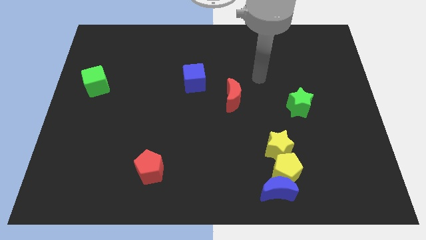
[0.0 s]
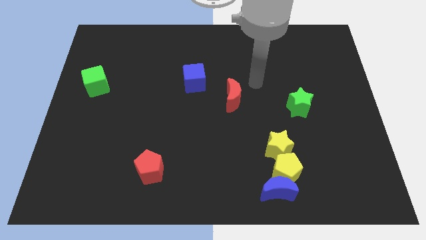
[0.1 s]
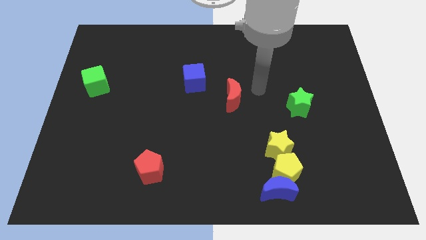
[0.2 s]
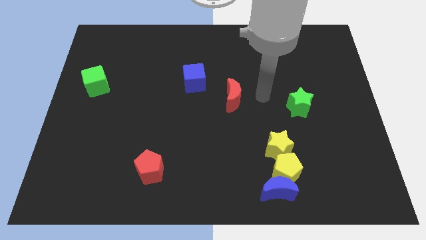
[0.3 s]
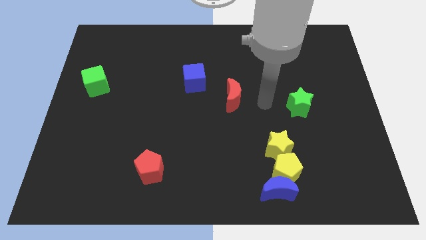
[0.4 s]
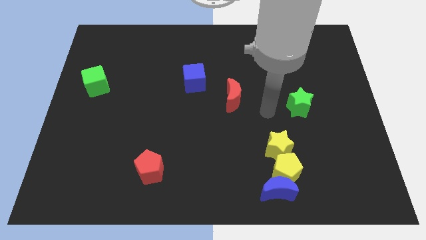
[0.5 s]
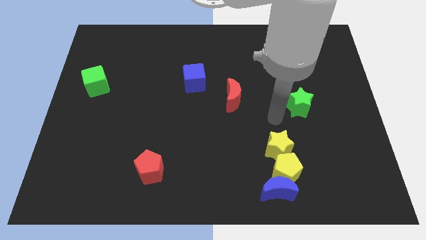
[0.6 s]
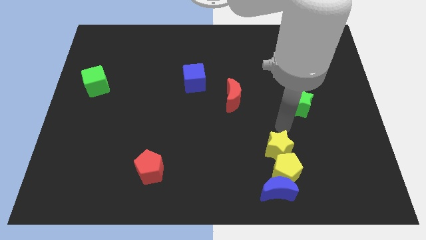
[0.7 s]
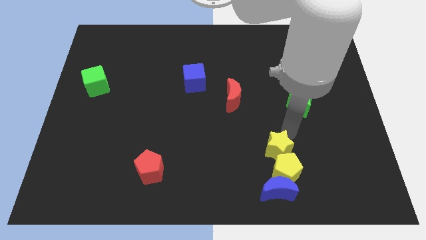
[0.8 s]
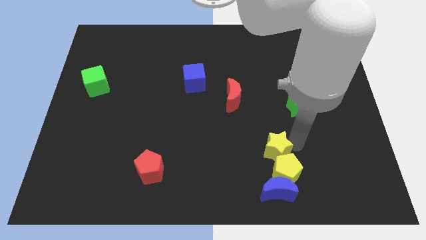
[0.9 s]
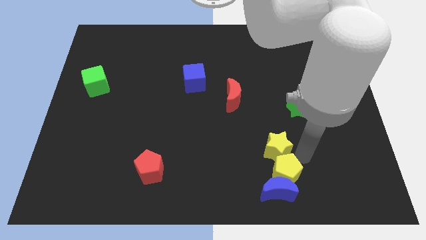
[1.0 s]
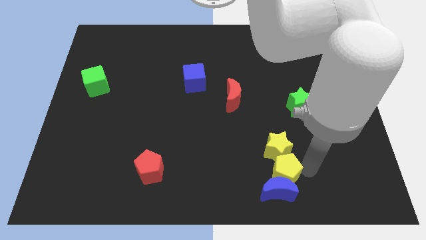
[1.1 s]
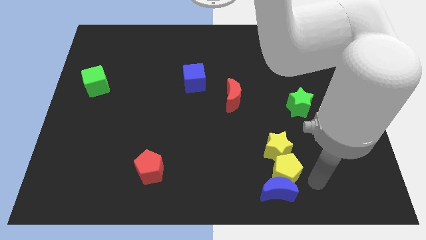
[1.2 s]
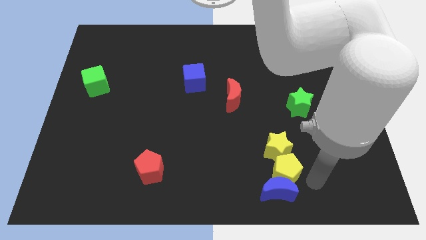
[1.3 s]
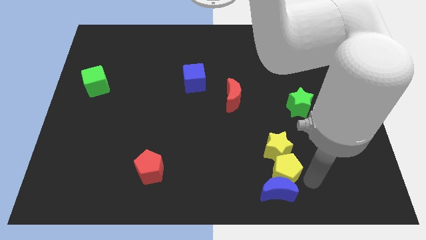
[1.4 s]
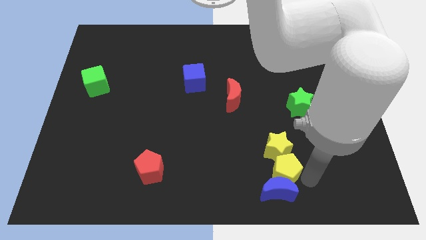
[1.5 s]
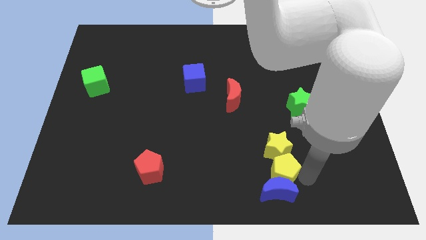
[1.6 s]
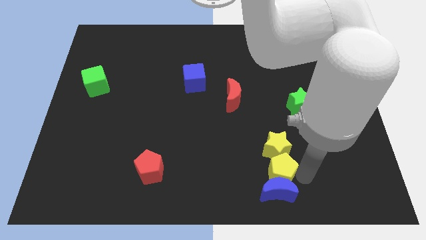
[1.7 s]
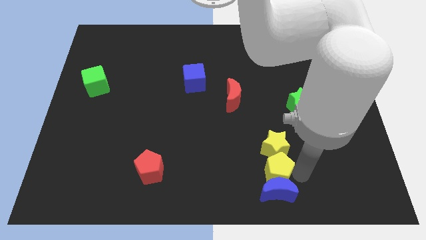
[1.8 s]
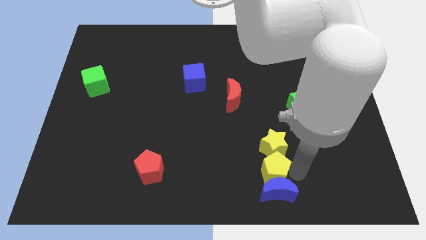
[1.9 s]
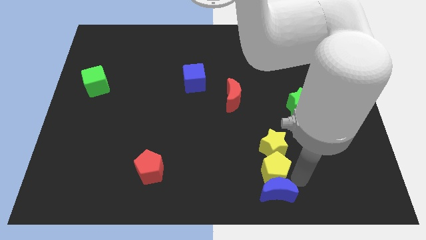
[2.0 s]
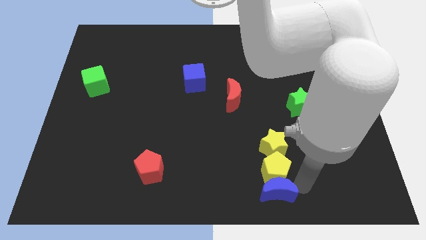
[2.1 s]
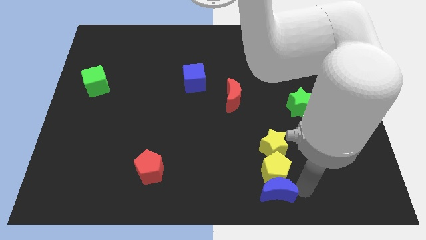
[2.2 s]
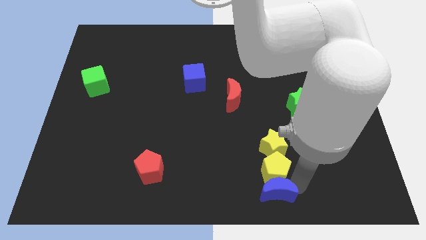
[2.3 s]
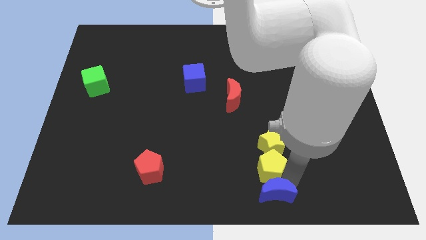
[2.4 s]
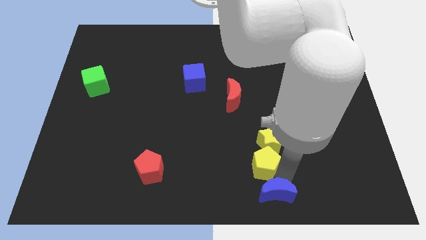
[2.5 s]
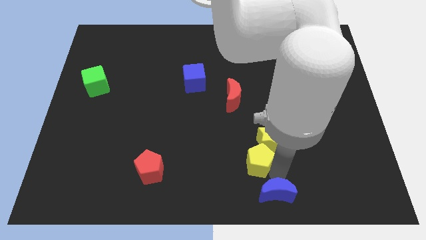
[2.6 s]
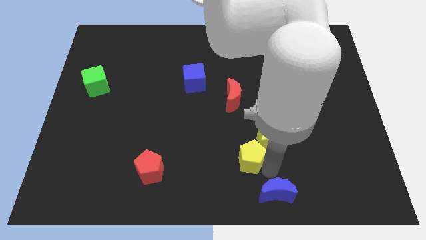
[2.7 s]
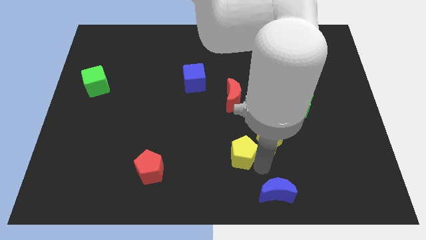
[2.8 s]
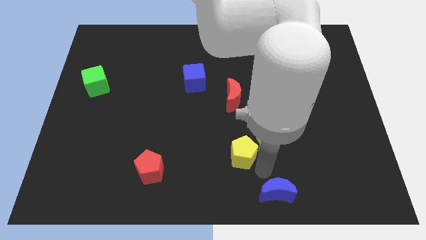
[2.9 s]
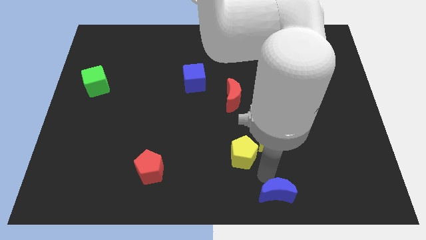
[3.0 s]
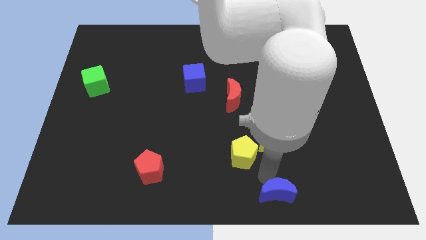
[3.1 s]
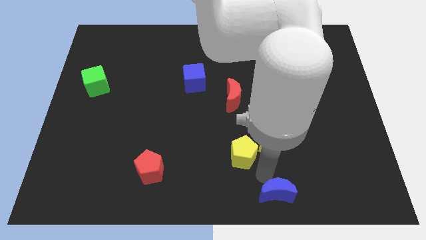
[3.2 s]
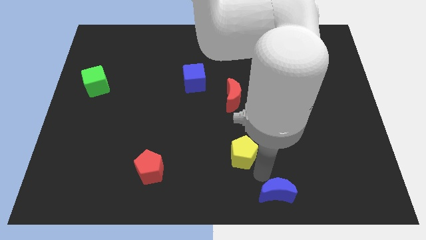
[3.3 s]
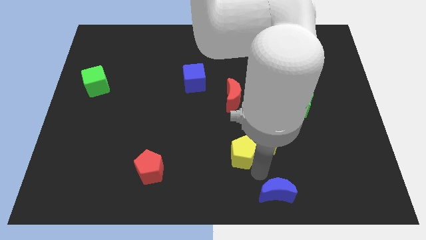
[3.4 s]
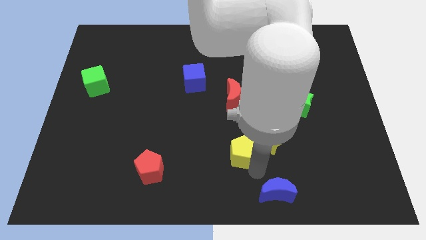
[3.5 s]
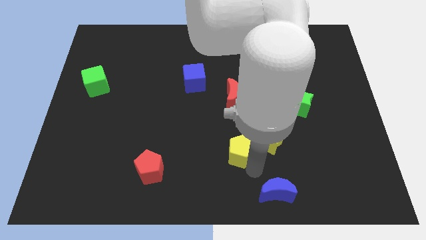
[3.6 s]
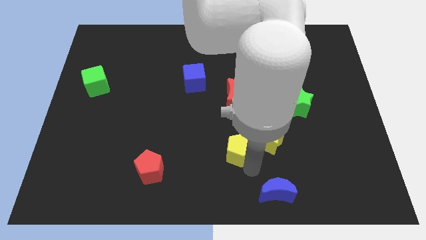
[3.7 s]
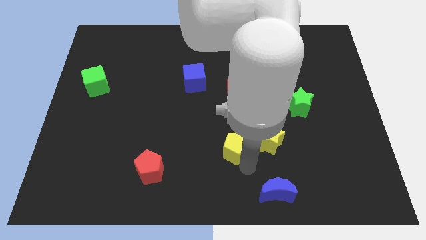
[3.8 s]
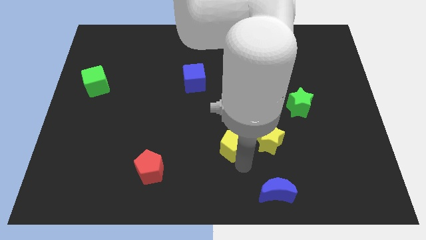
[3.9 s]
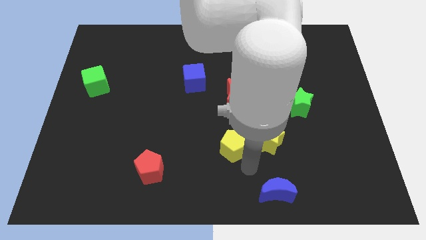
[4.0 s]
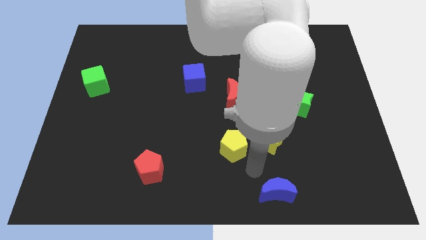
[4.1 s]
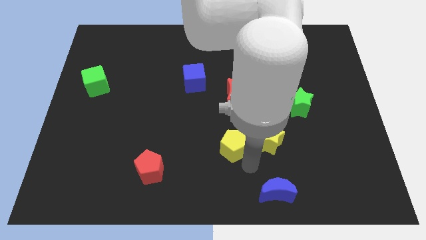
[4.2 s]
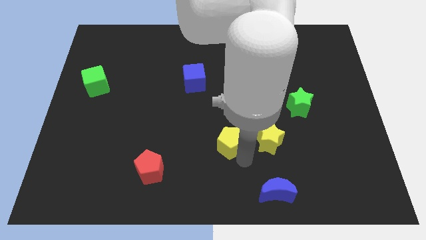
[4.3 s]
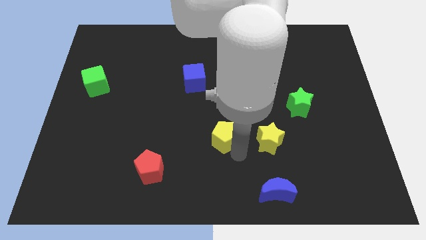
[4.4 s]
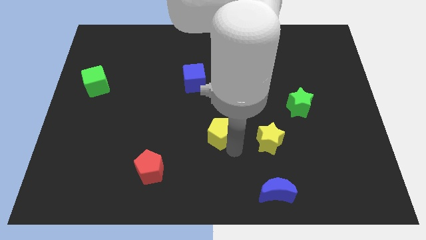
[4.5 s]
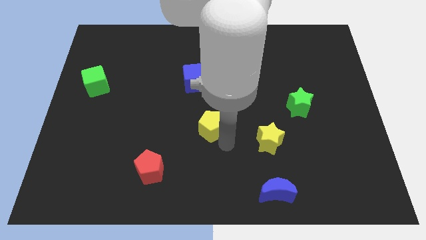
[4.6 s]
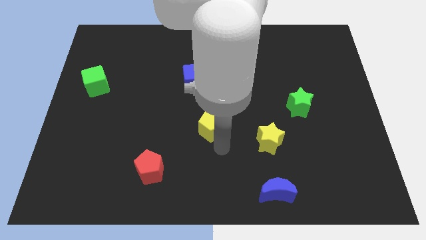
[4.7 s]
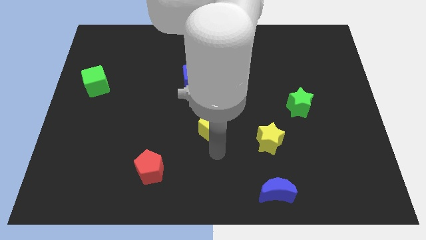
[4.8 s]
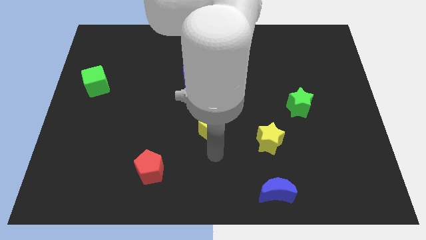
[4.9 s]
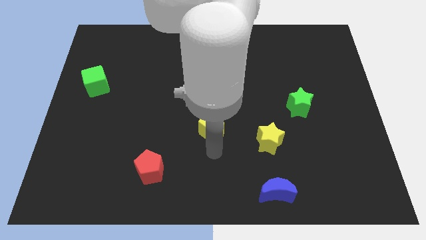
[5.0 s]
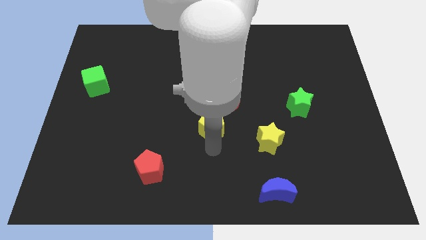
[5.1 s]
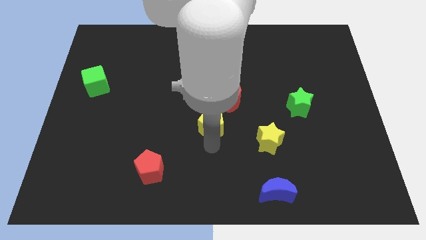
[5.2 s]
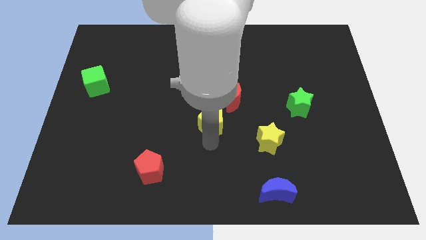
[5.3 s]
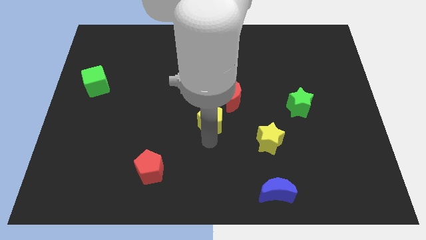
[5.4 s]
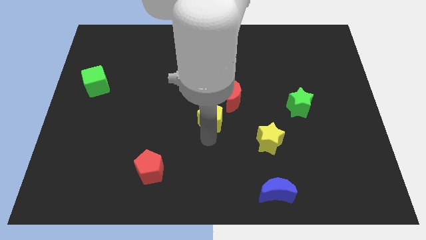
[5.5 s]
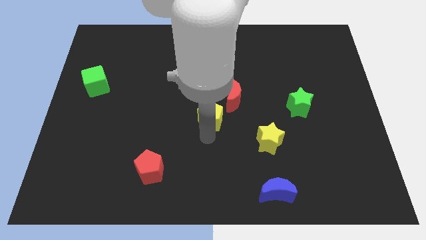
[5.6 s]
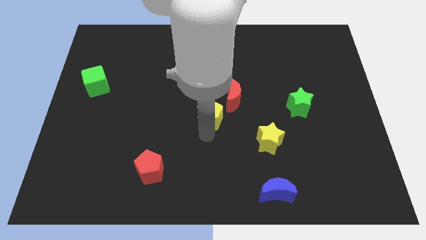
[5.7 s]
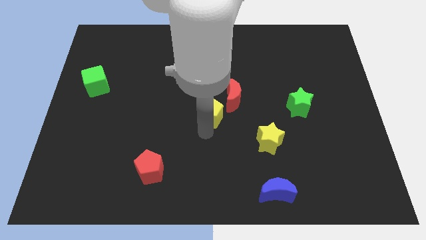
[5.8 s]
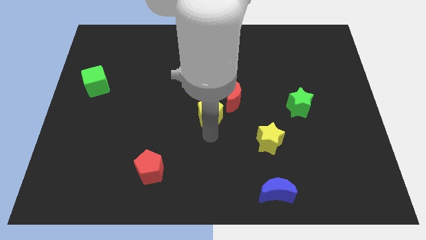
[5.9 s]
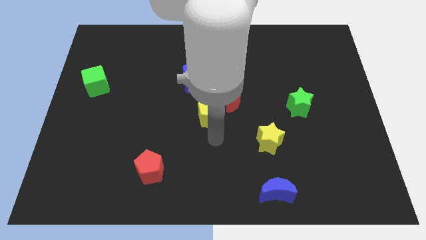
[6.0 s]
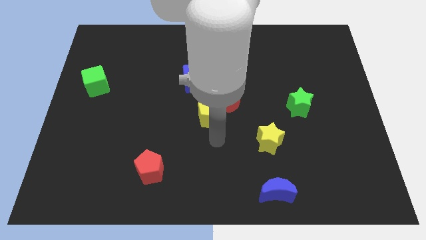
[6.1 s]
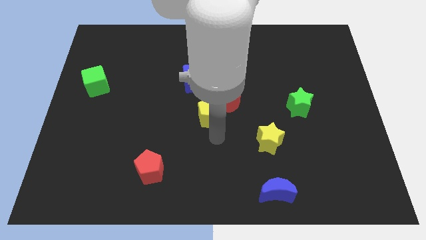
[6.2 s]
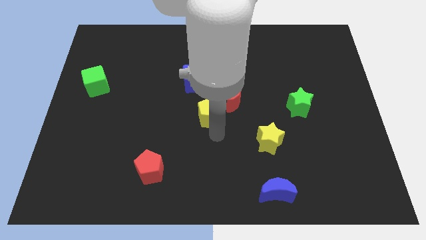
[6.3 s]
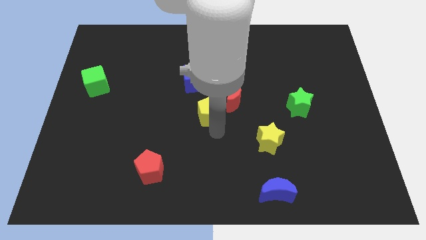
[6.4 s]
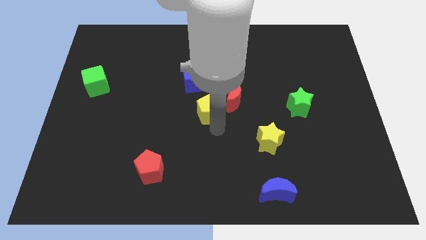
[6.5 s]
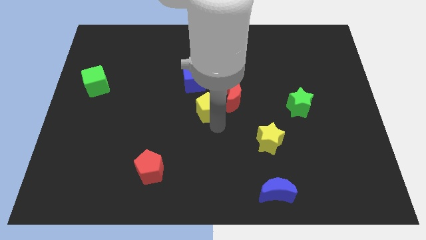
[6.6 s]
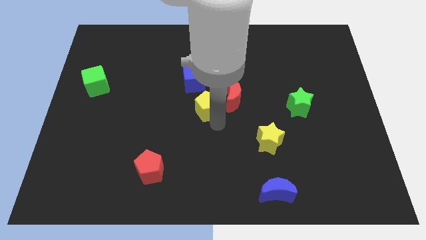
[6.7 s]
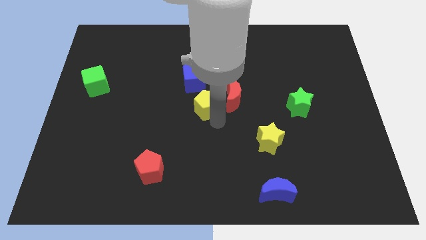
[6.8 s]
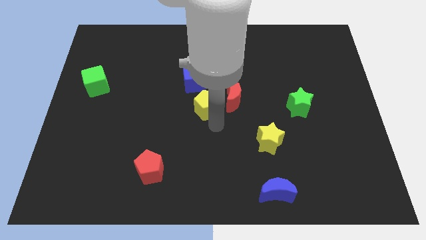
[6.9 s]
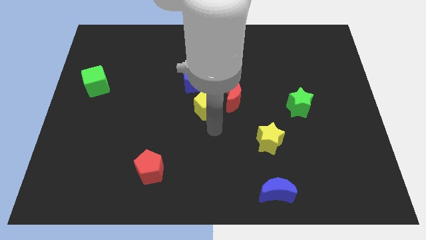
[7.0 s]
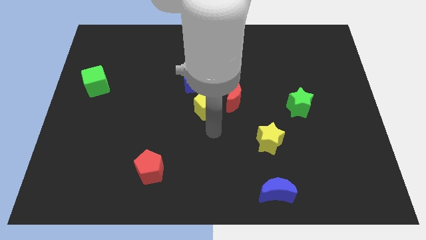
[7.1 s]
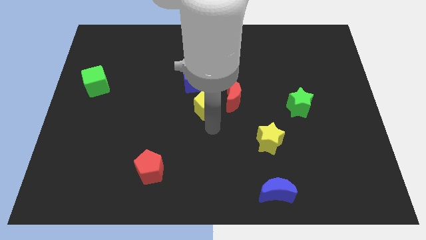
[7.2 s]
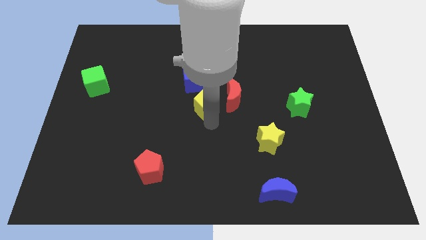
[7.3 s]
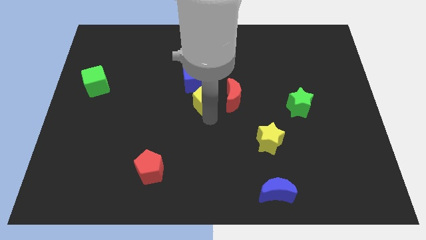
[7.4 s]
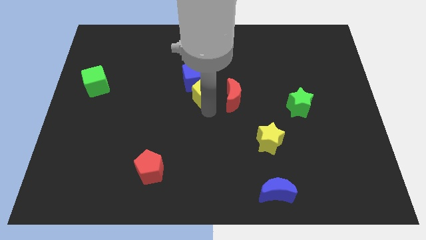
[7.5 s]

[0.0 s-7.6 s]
slide the yellow pentagon close to the blue cube
